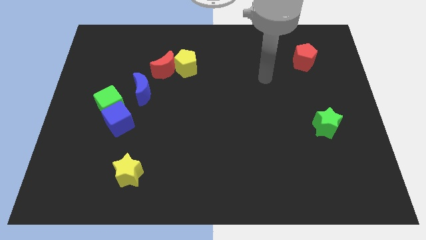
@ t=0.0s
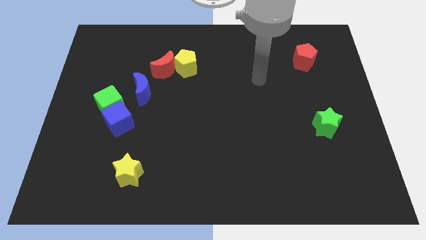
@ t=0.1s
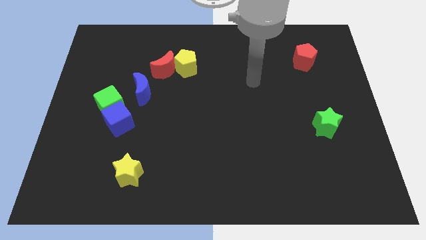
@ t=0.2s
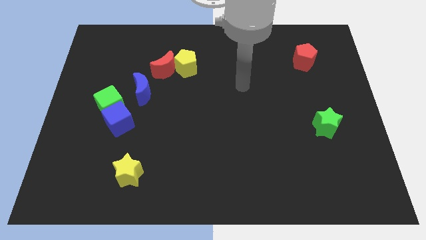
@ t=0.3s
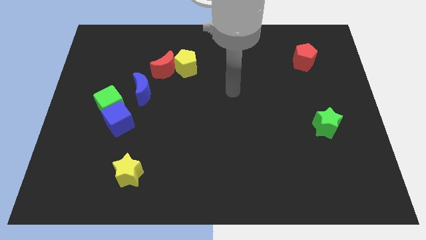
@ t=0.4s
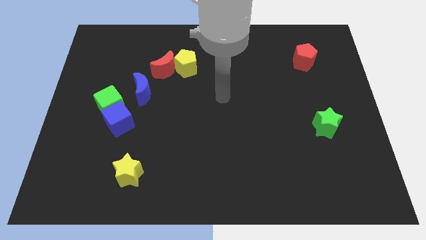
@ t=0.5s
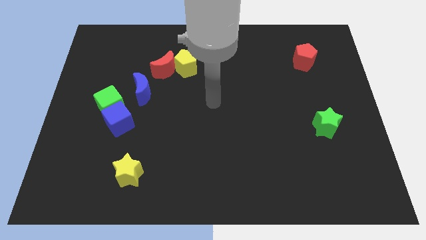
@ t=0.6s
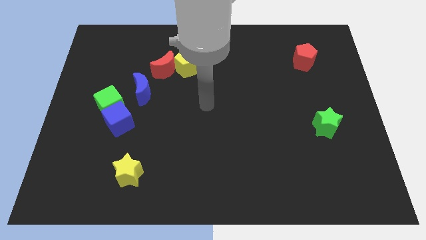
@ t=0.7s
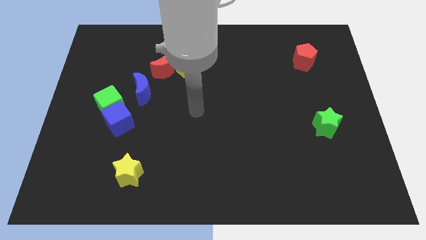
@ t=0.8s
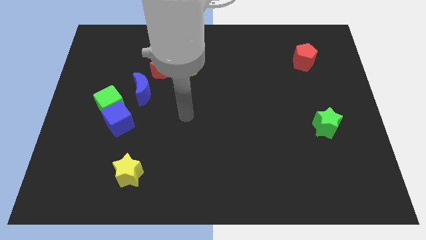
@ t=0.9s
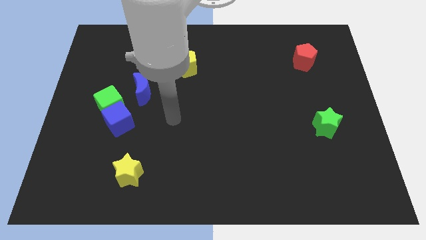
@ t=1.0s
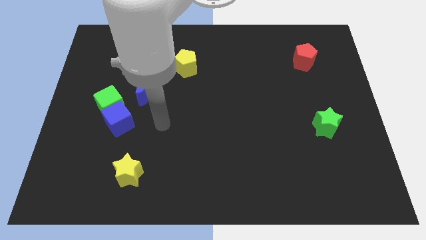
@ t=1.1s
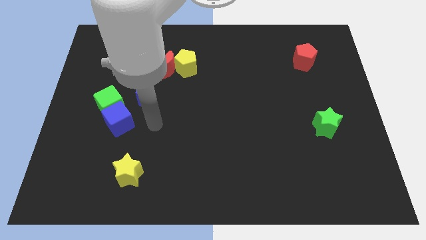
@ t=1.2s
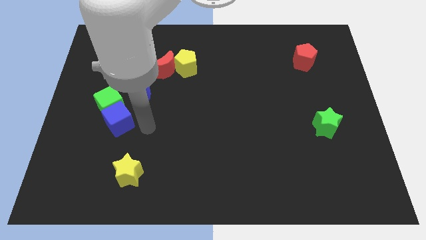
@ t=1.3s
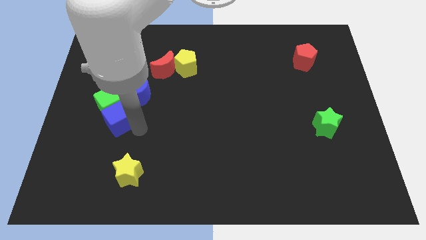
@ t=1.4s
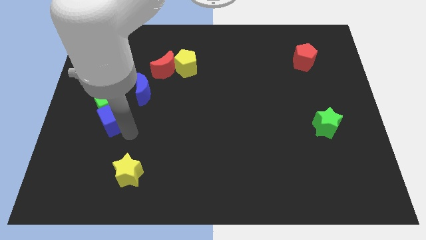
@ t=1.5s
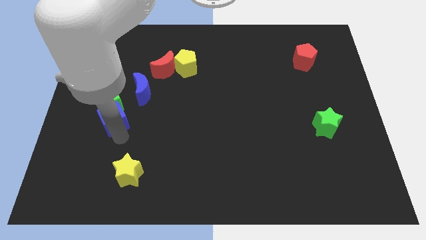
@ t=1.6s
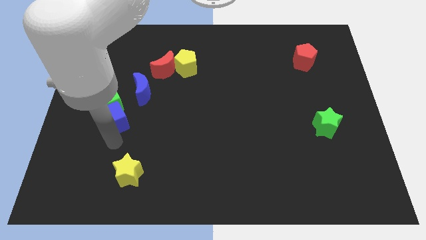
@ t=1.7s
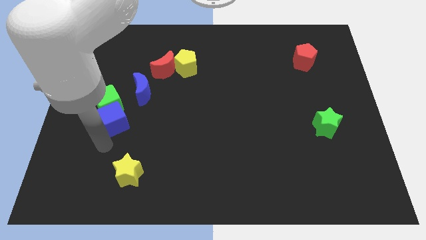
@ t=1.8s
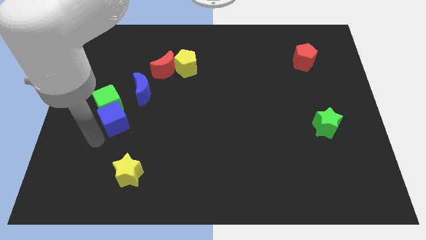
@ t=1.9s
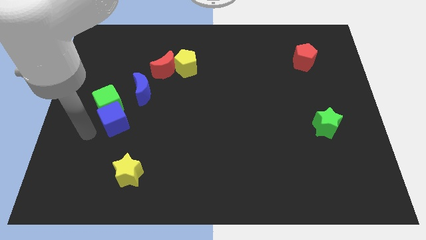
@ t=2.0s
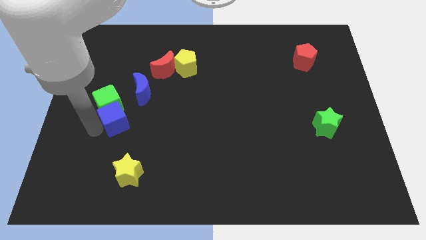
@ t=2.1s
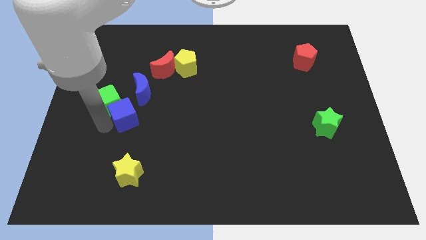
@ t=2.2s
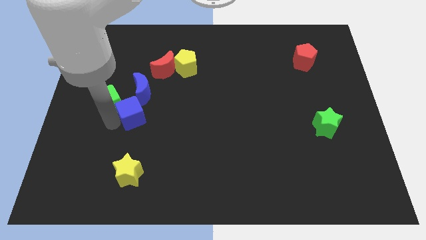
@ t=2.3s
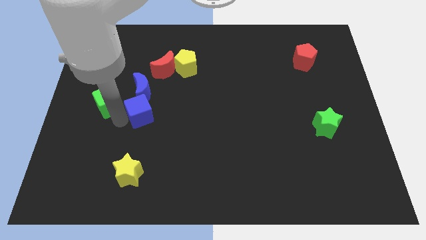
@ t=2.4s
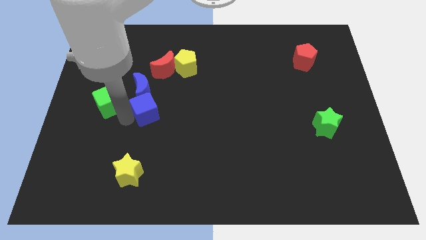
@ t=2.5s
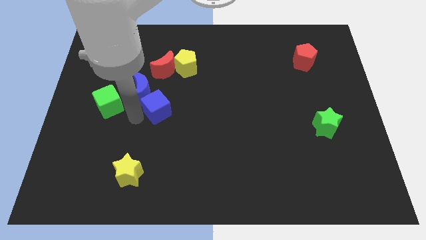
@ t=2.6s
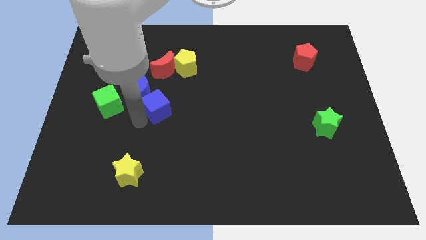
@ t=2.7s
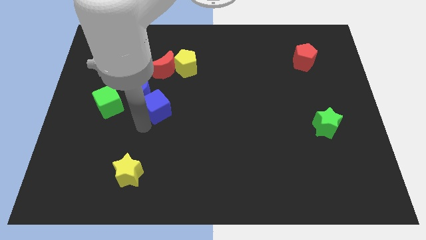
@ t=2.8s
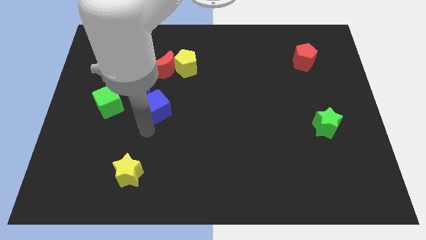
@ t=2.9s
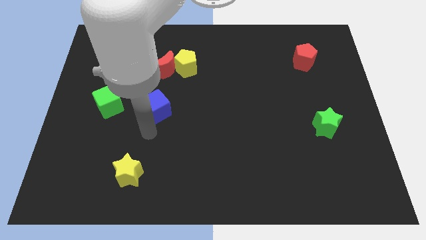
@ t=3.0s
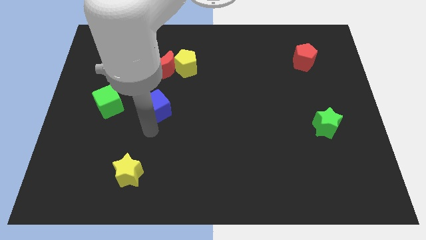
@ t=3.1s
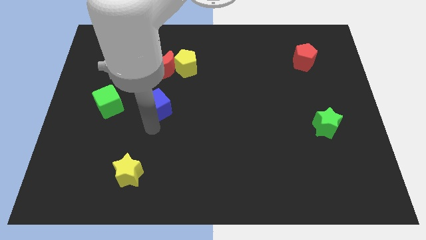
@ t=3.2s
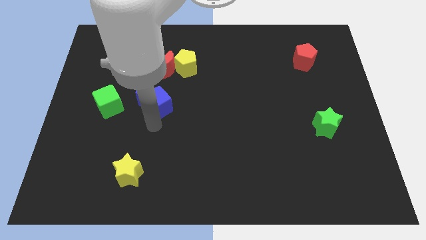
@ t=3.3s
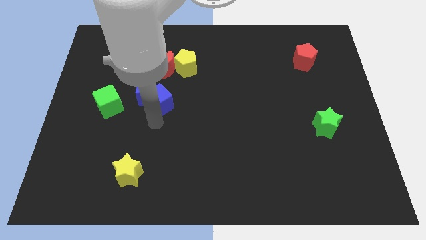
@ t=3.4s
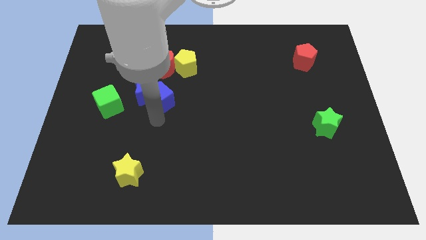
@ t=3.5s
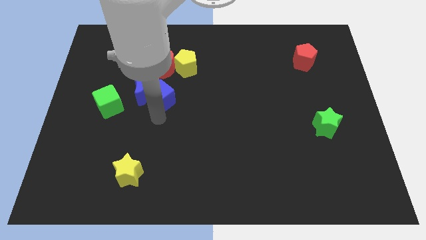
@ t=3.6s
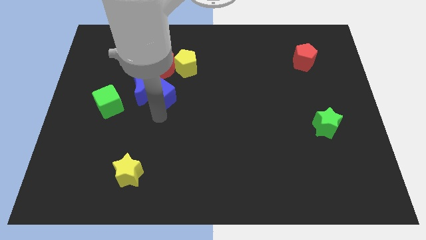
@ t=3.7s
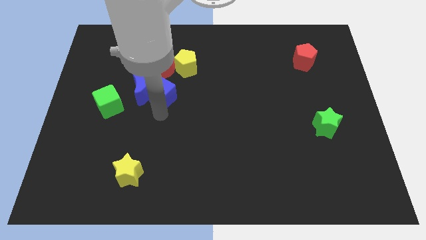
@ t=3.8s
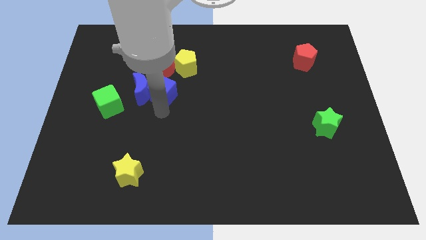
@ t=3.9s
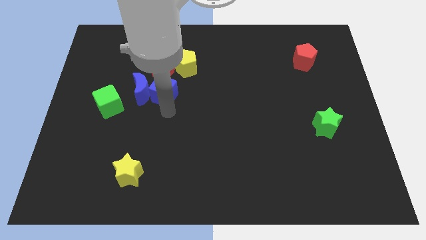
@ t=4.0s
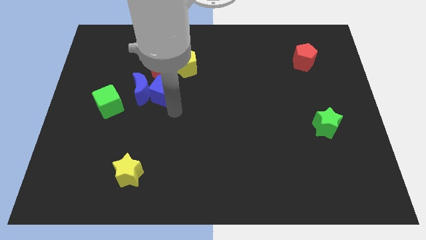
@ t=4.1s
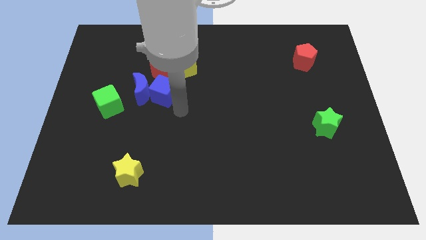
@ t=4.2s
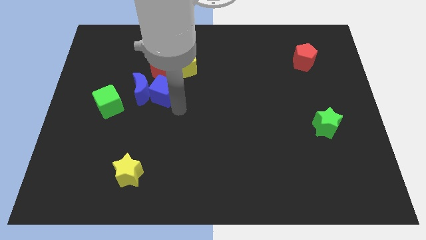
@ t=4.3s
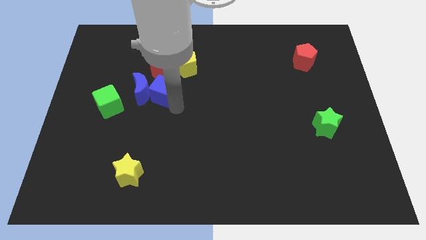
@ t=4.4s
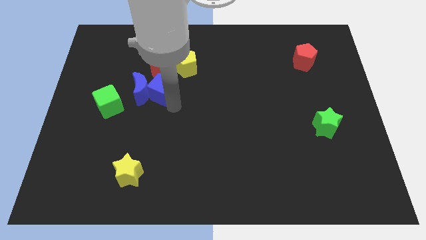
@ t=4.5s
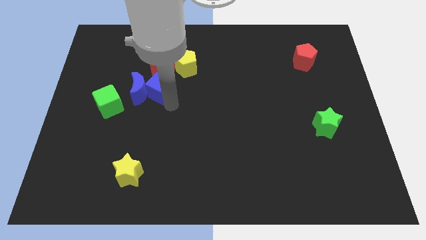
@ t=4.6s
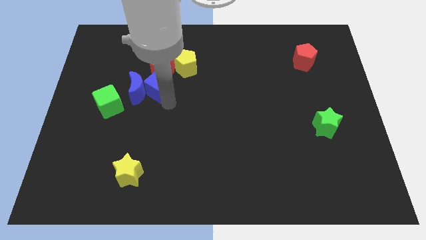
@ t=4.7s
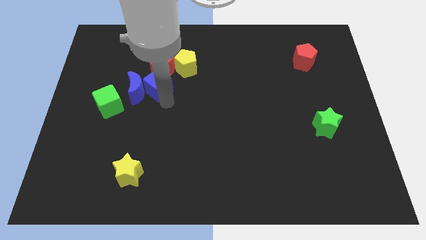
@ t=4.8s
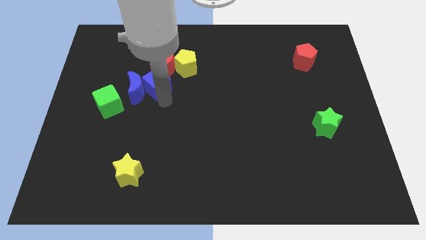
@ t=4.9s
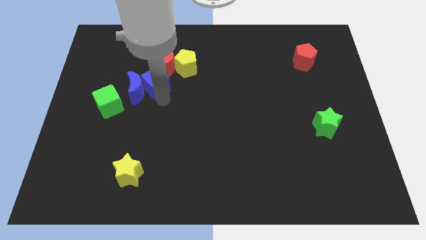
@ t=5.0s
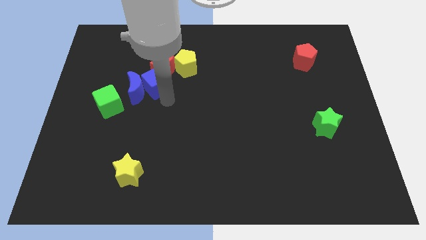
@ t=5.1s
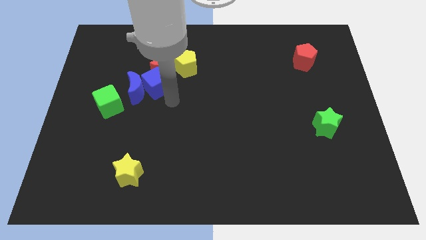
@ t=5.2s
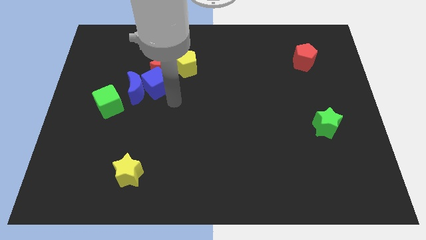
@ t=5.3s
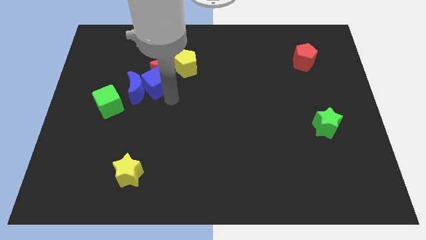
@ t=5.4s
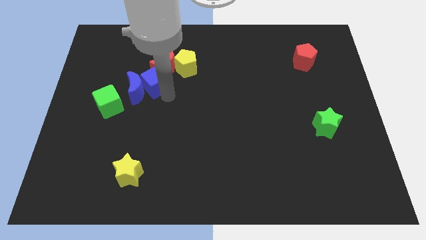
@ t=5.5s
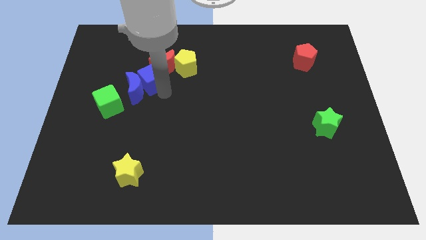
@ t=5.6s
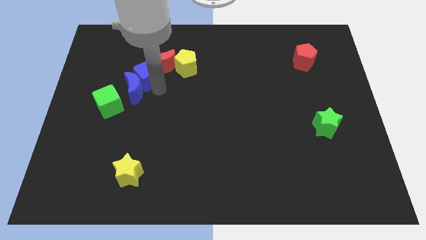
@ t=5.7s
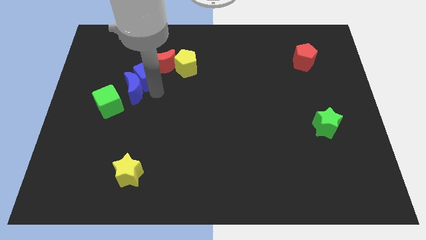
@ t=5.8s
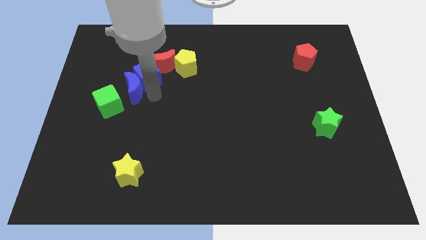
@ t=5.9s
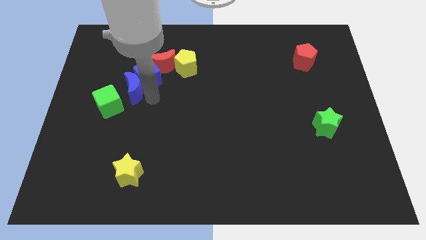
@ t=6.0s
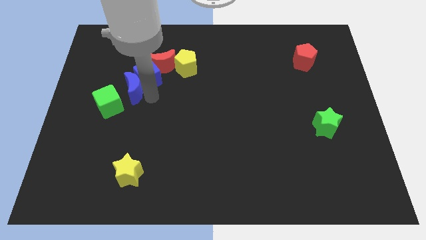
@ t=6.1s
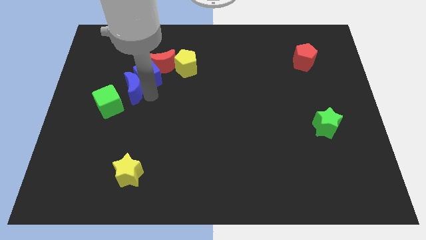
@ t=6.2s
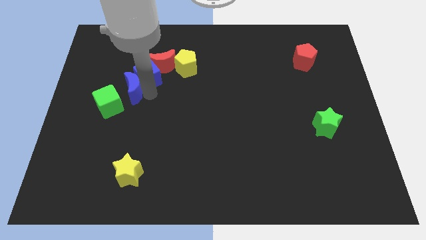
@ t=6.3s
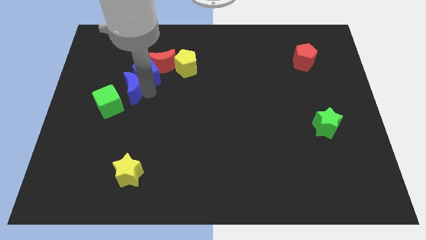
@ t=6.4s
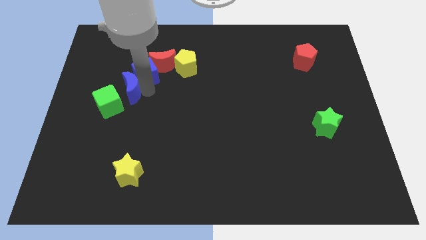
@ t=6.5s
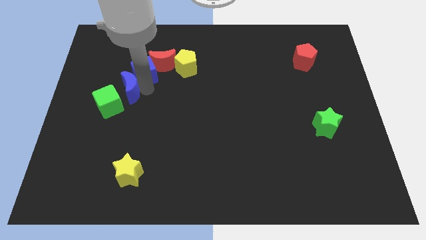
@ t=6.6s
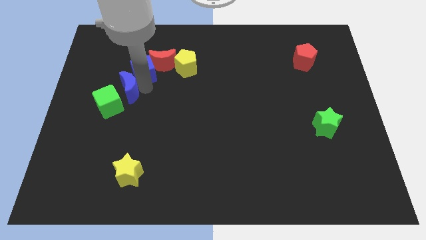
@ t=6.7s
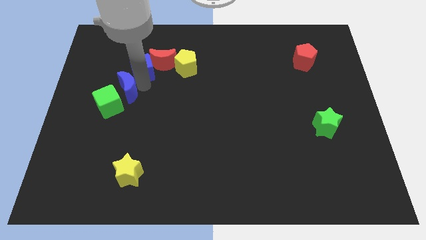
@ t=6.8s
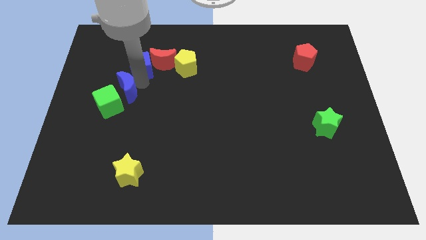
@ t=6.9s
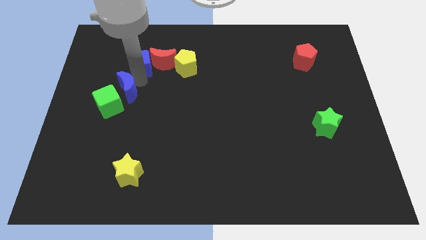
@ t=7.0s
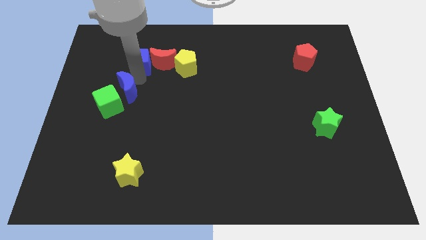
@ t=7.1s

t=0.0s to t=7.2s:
slide the blue cube to the top left side of the red moon
